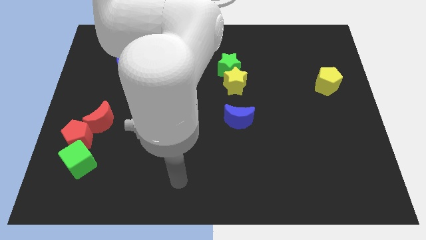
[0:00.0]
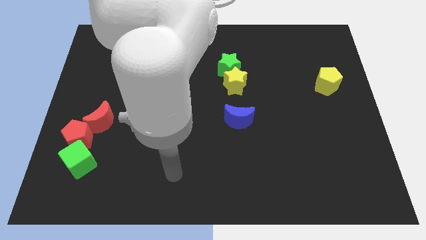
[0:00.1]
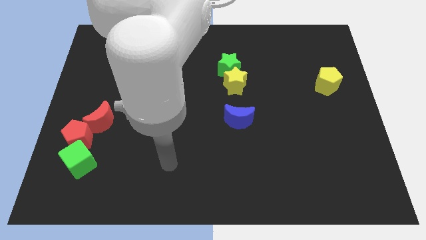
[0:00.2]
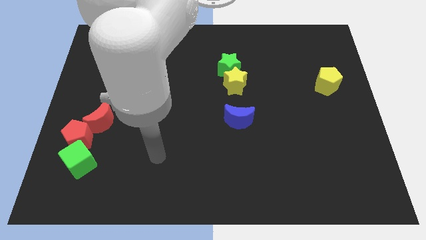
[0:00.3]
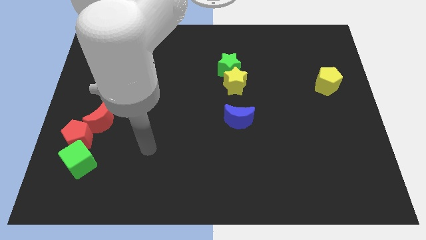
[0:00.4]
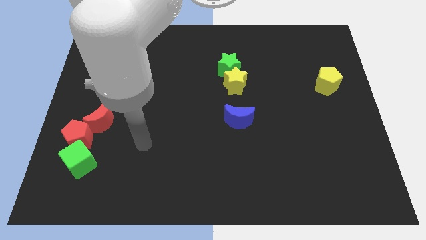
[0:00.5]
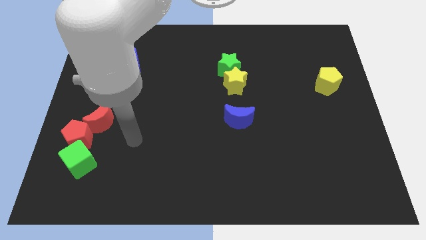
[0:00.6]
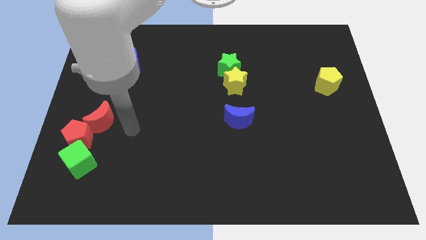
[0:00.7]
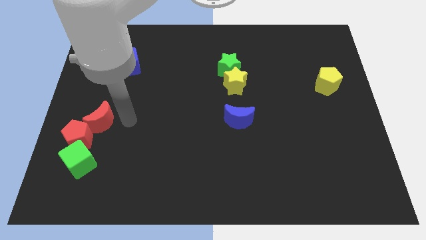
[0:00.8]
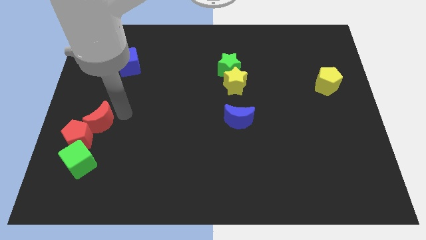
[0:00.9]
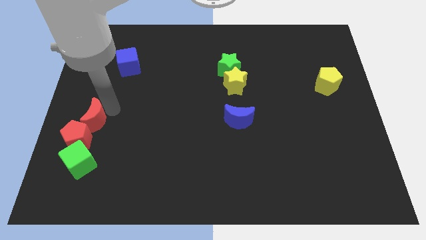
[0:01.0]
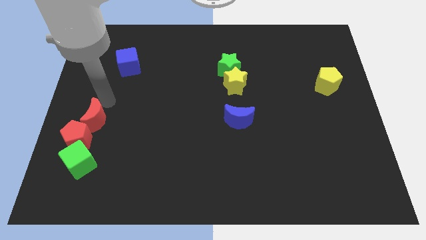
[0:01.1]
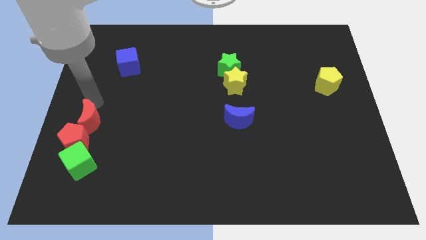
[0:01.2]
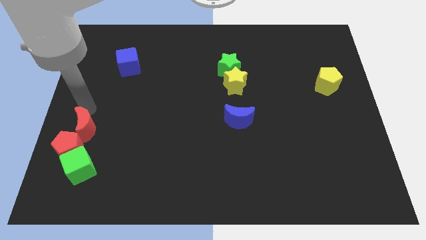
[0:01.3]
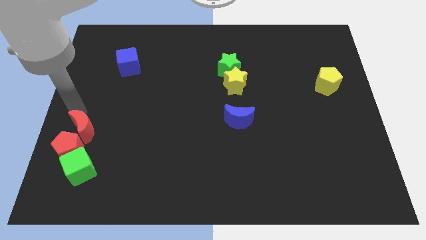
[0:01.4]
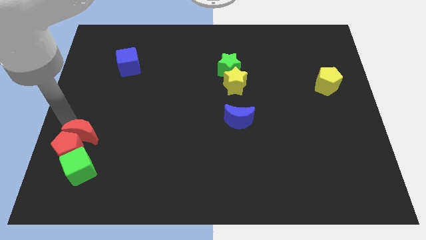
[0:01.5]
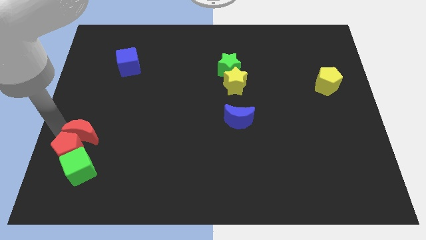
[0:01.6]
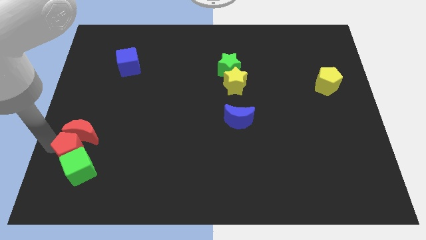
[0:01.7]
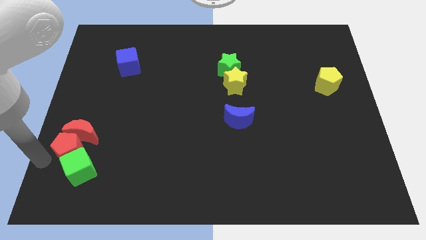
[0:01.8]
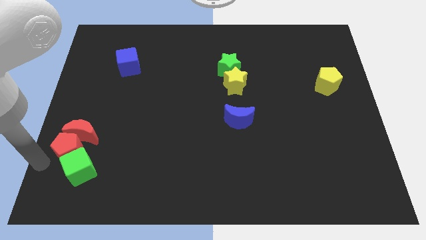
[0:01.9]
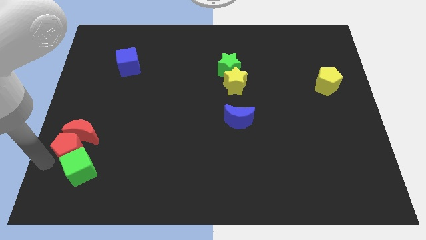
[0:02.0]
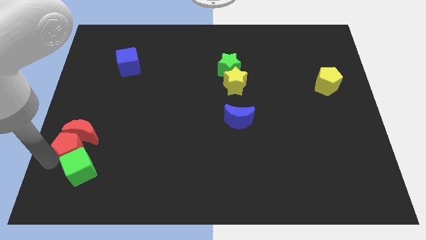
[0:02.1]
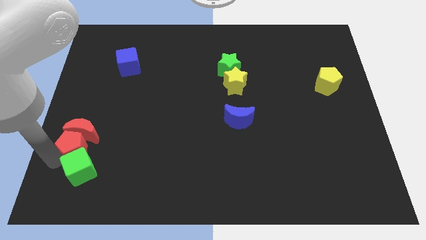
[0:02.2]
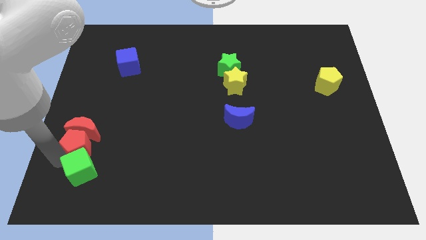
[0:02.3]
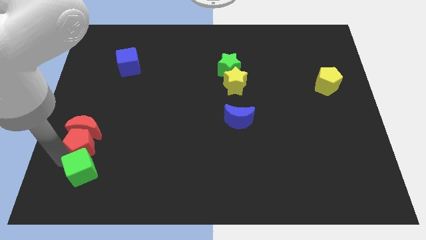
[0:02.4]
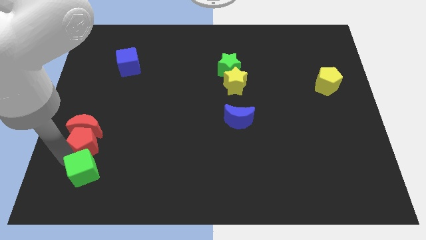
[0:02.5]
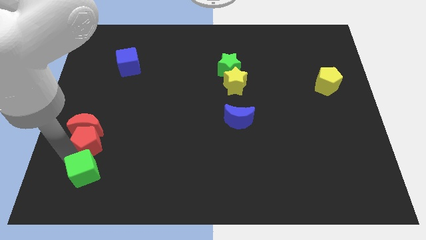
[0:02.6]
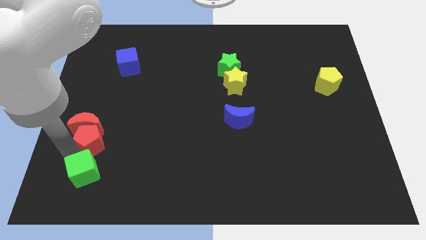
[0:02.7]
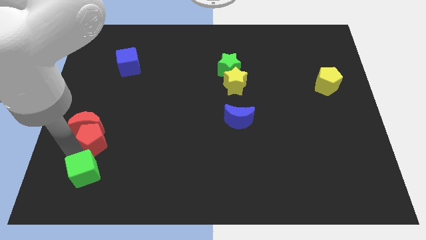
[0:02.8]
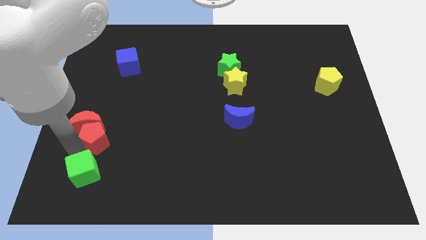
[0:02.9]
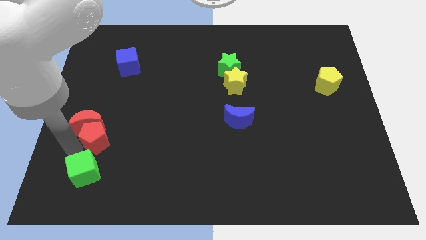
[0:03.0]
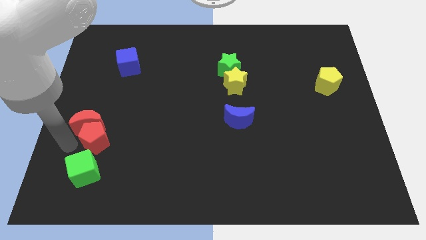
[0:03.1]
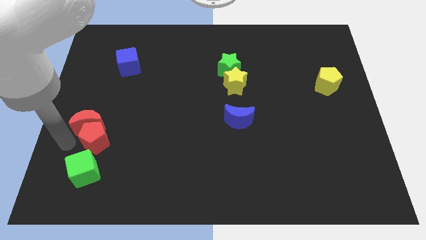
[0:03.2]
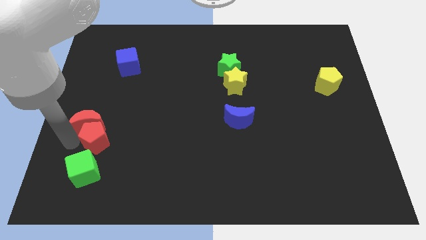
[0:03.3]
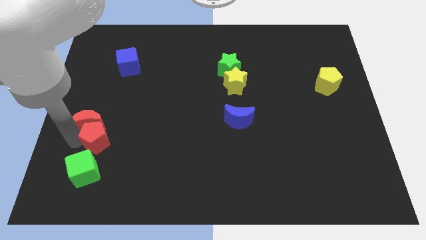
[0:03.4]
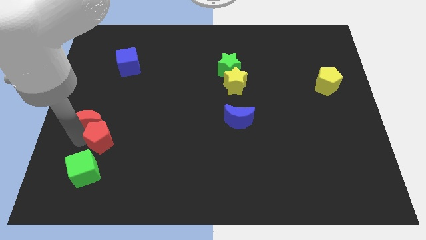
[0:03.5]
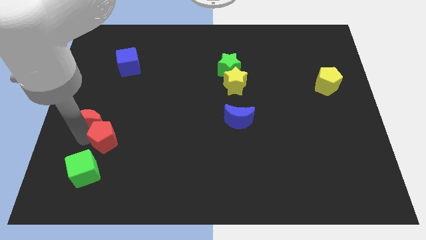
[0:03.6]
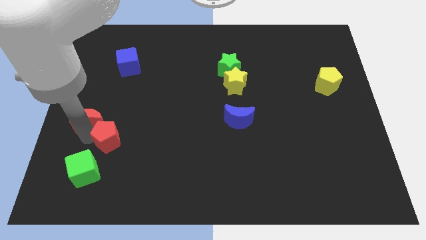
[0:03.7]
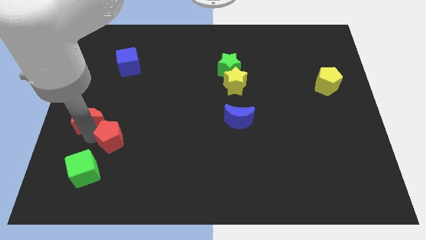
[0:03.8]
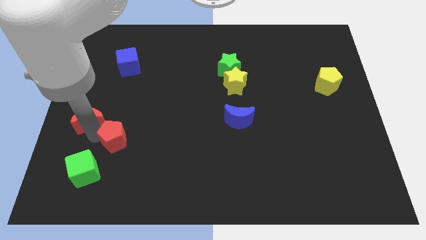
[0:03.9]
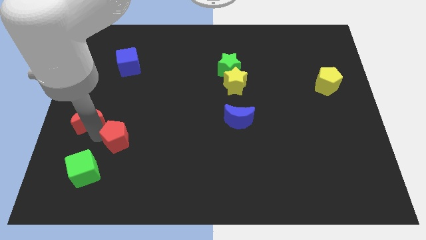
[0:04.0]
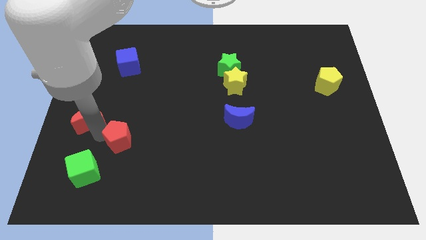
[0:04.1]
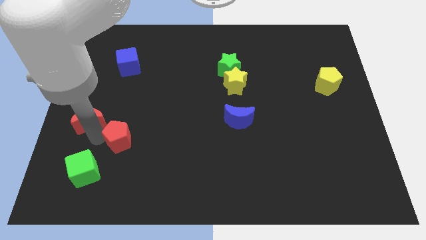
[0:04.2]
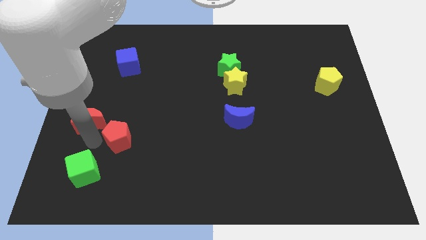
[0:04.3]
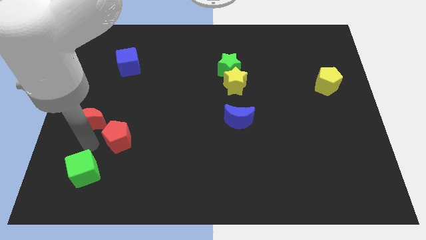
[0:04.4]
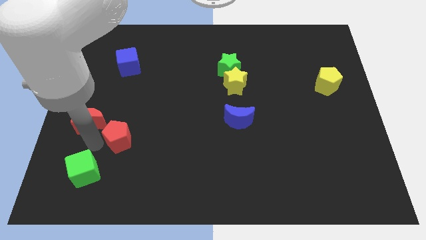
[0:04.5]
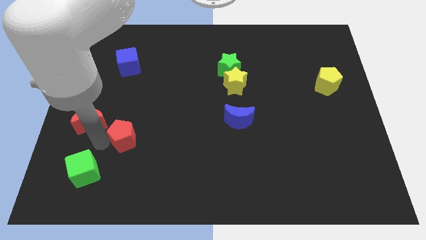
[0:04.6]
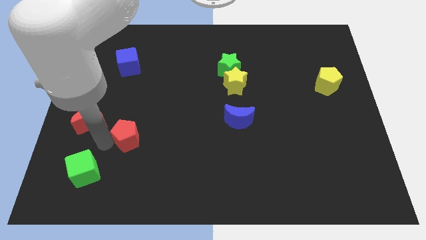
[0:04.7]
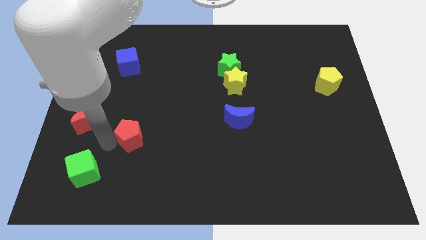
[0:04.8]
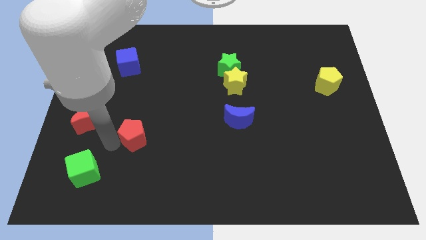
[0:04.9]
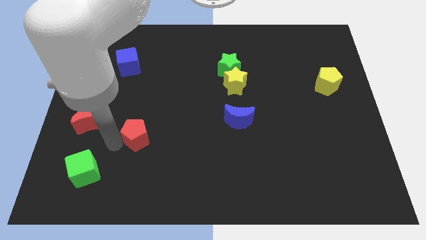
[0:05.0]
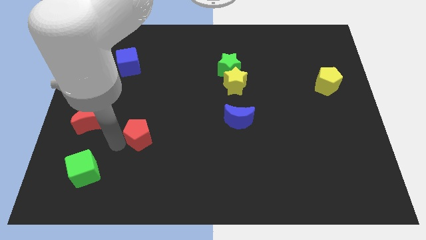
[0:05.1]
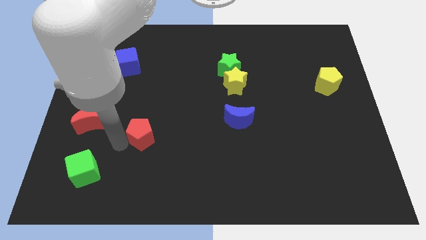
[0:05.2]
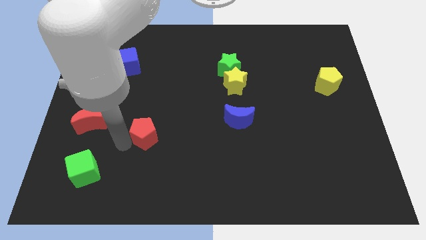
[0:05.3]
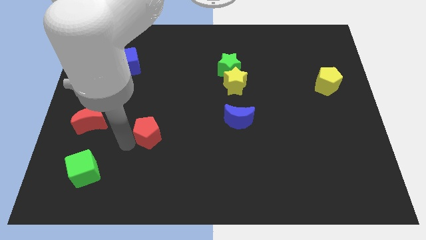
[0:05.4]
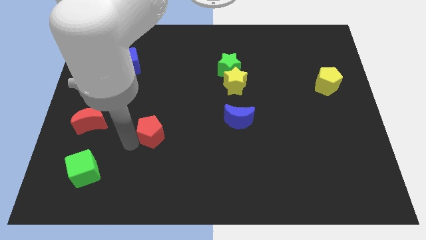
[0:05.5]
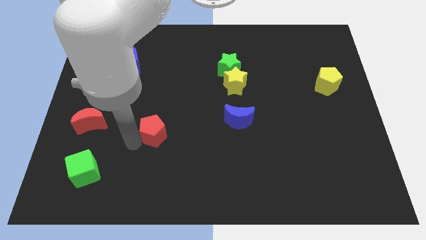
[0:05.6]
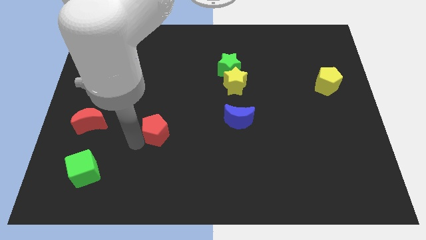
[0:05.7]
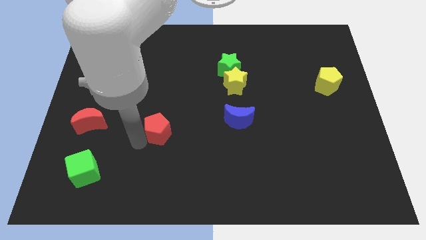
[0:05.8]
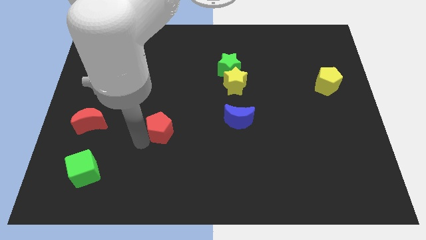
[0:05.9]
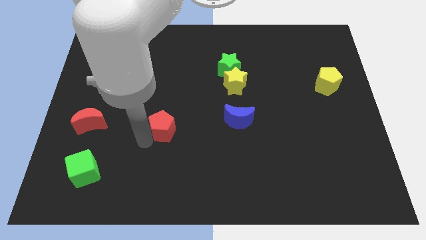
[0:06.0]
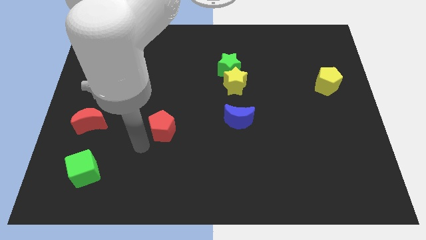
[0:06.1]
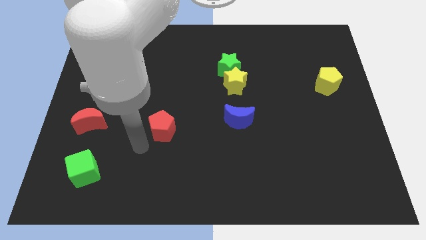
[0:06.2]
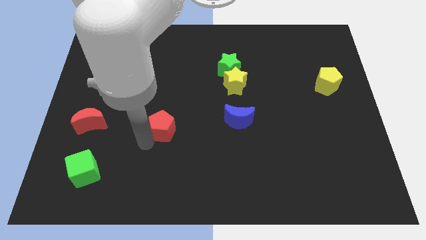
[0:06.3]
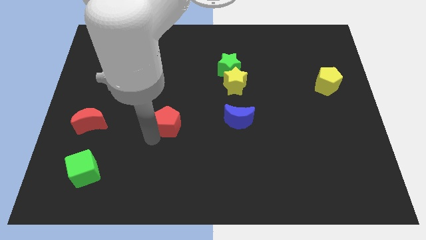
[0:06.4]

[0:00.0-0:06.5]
put the red pentagon to the middle of the board
